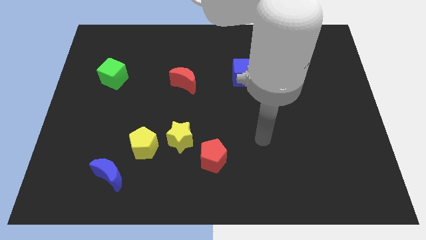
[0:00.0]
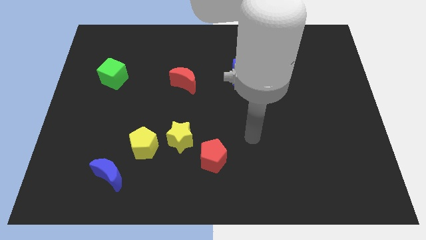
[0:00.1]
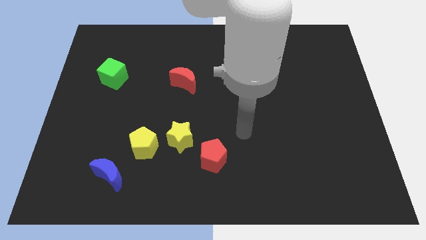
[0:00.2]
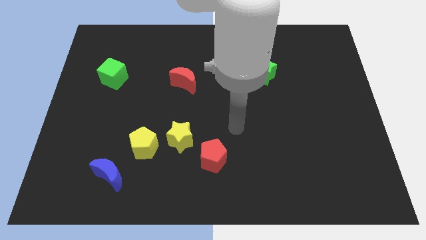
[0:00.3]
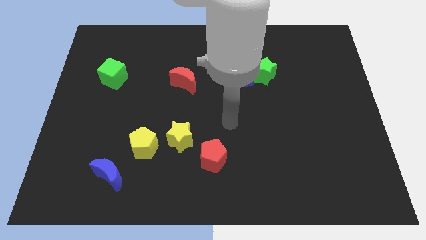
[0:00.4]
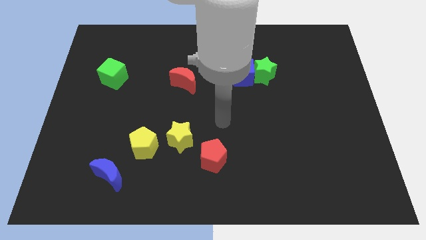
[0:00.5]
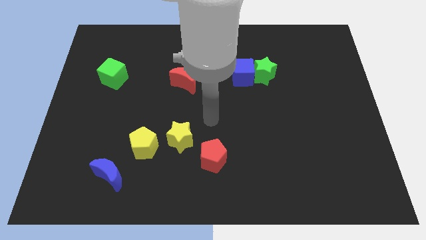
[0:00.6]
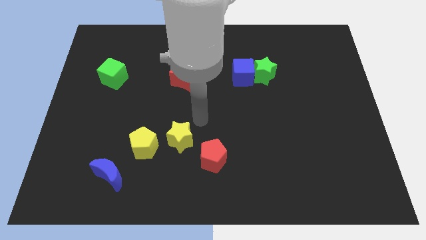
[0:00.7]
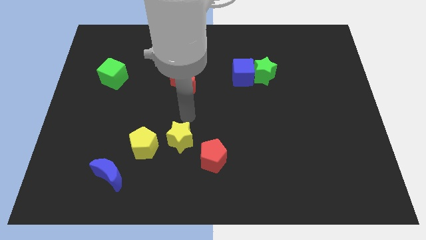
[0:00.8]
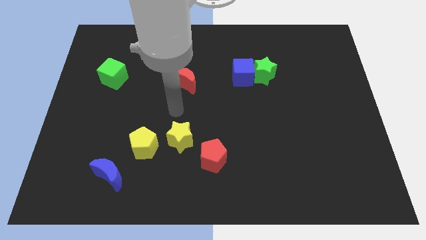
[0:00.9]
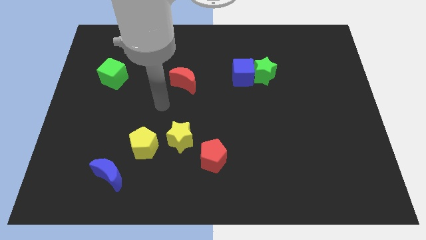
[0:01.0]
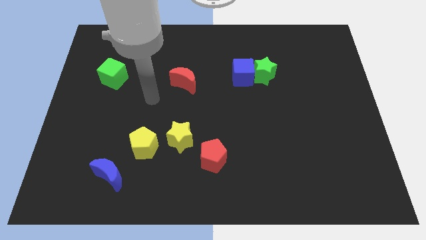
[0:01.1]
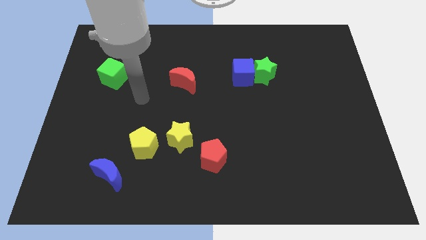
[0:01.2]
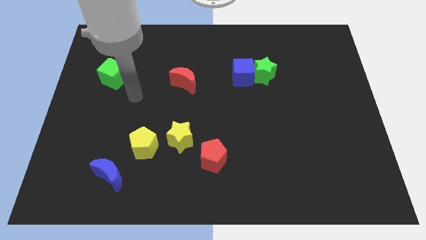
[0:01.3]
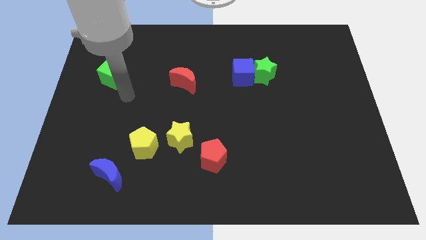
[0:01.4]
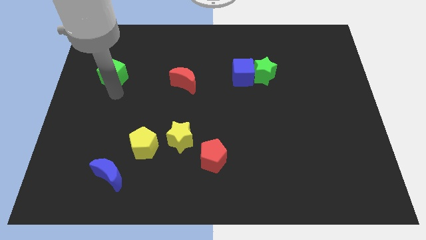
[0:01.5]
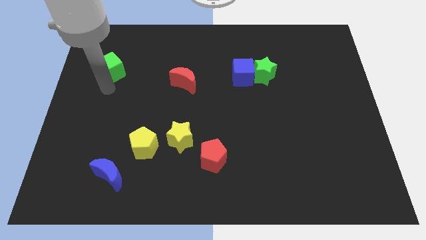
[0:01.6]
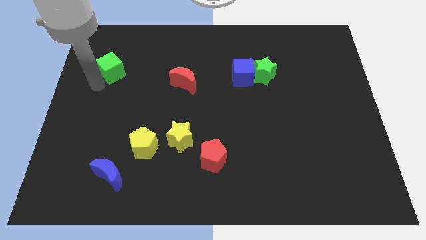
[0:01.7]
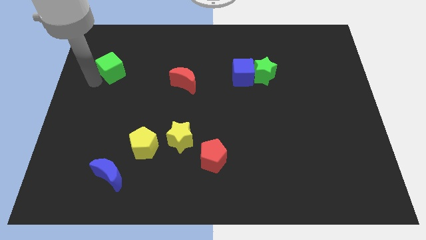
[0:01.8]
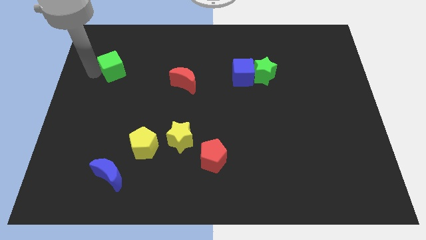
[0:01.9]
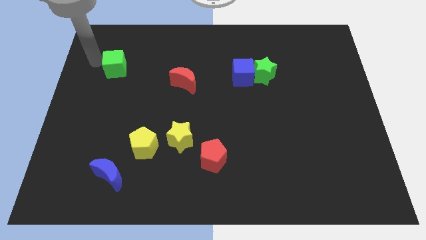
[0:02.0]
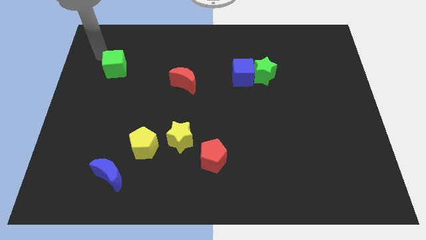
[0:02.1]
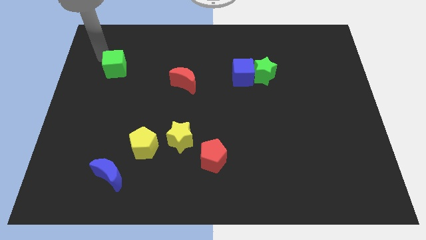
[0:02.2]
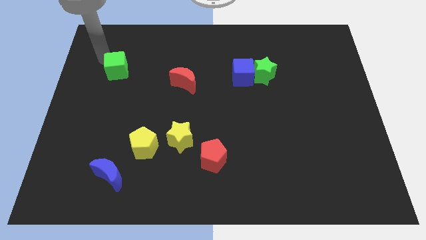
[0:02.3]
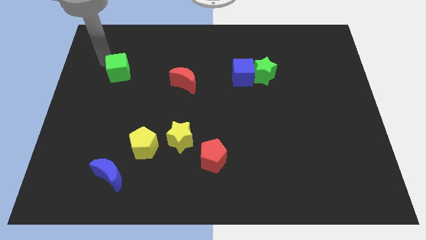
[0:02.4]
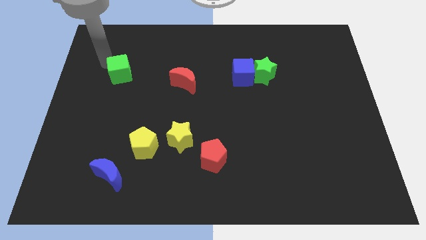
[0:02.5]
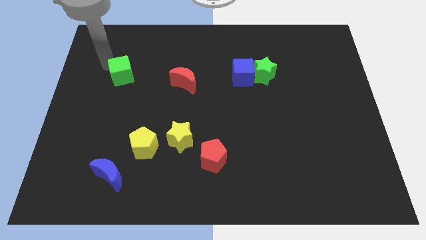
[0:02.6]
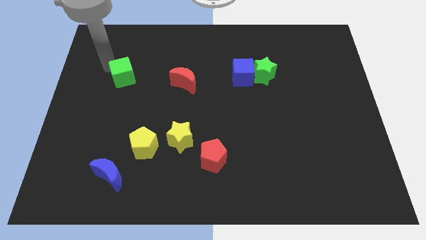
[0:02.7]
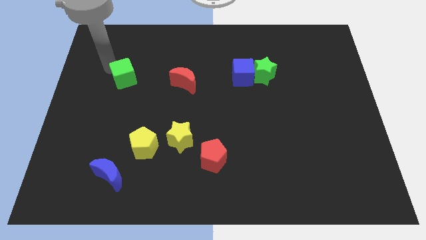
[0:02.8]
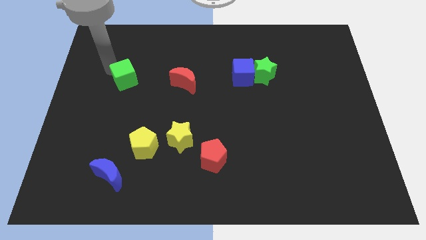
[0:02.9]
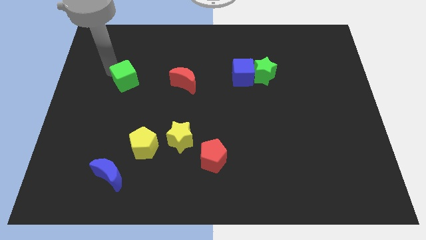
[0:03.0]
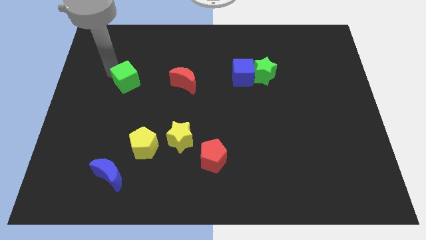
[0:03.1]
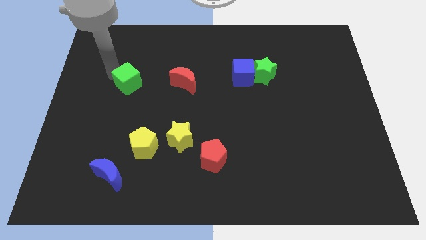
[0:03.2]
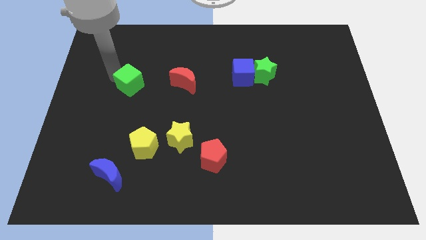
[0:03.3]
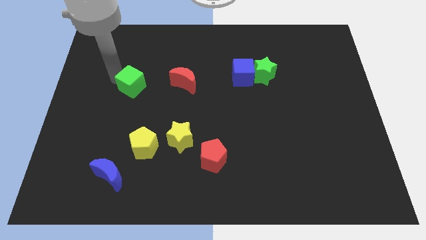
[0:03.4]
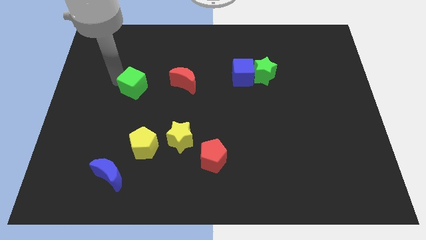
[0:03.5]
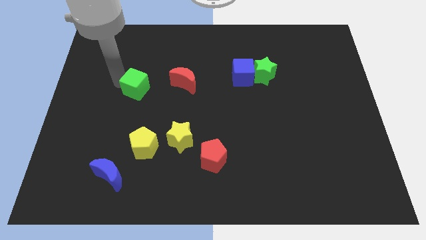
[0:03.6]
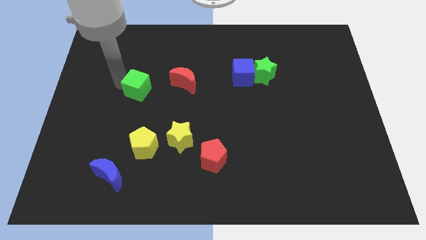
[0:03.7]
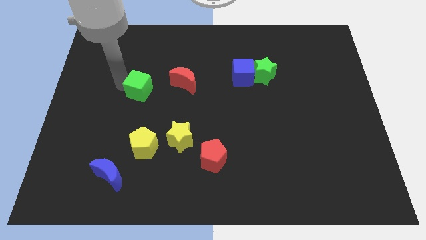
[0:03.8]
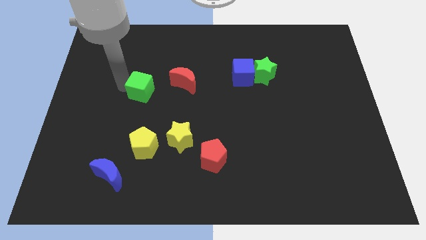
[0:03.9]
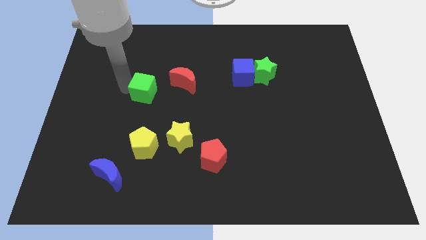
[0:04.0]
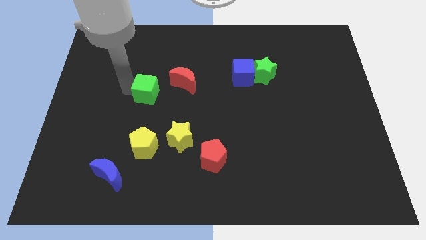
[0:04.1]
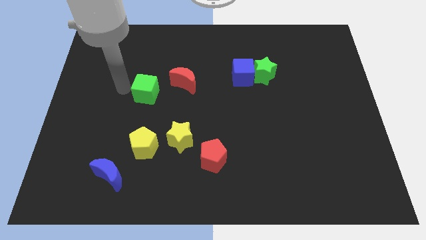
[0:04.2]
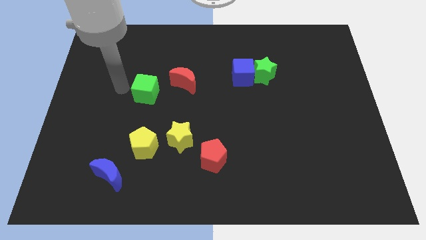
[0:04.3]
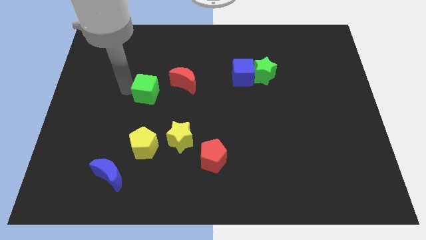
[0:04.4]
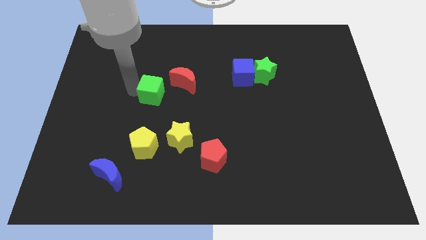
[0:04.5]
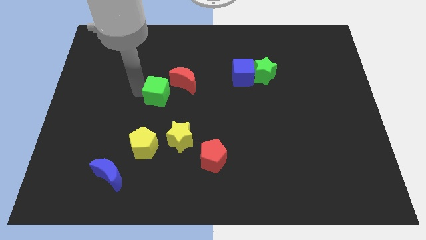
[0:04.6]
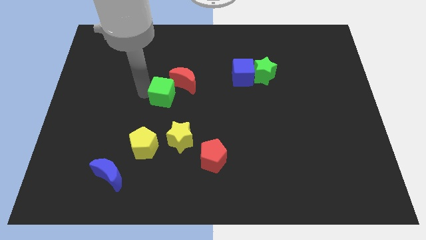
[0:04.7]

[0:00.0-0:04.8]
move the green cube to the middle

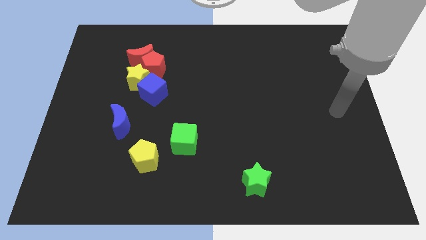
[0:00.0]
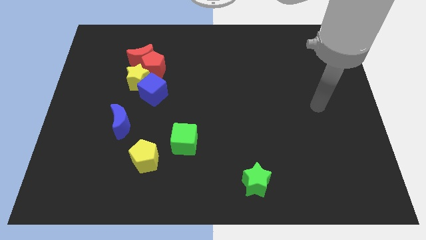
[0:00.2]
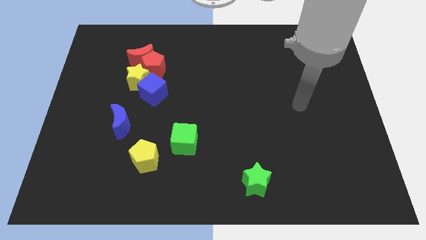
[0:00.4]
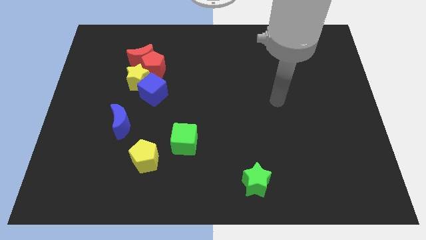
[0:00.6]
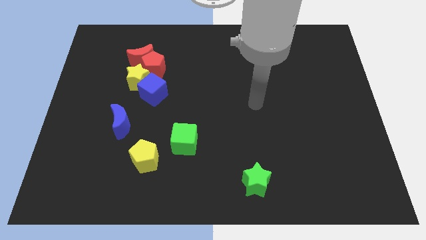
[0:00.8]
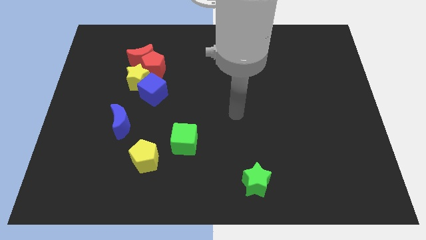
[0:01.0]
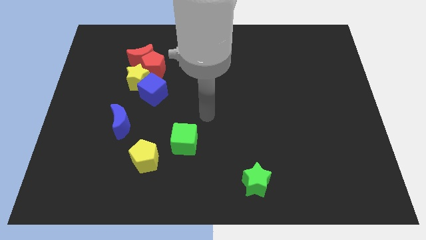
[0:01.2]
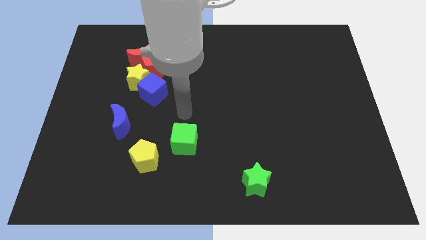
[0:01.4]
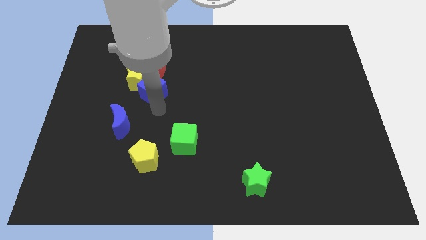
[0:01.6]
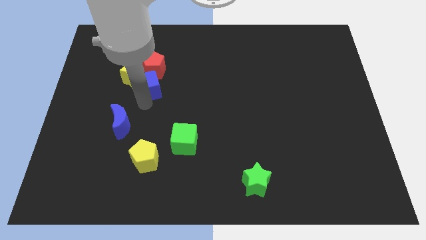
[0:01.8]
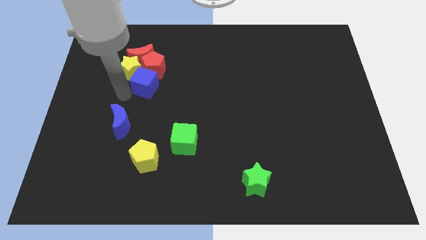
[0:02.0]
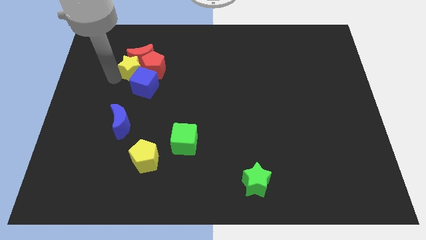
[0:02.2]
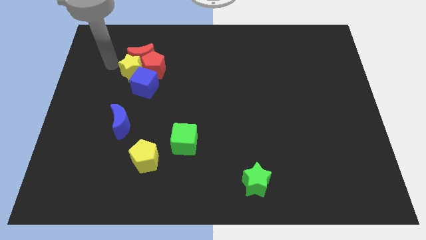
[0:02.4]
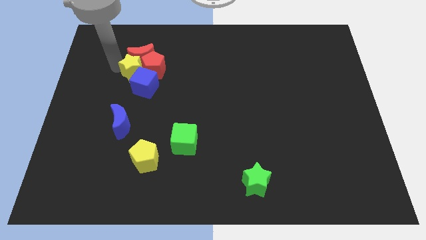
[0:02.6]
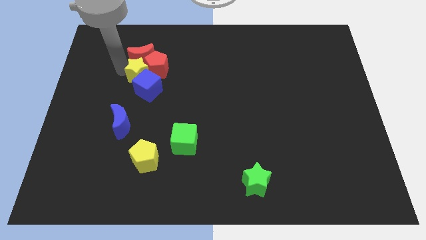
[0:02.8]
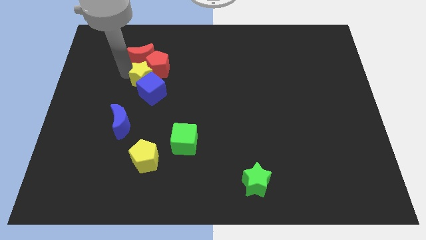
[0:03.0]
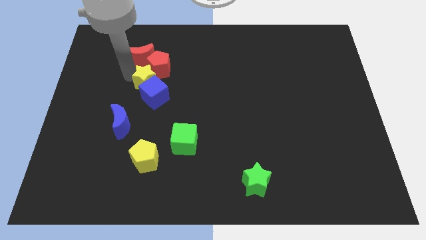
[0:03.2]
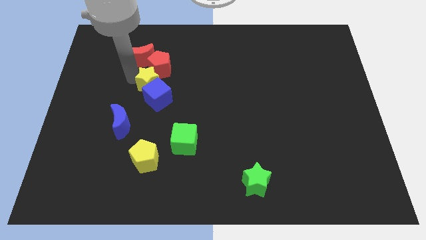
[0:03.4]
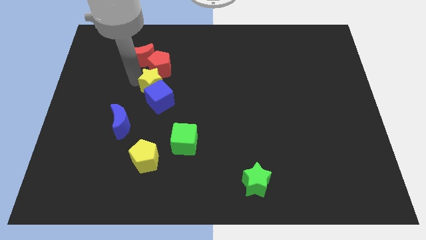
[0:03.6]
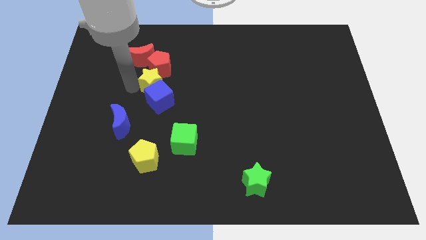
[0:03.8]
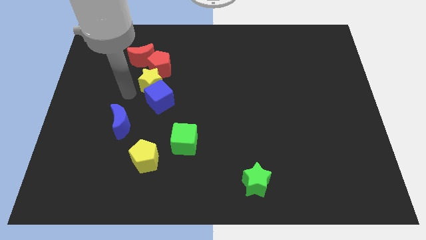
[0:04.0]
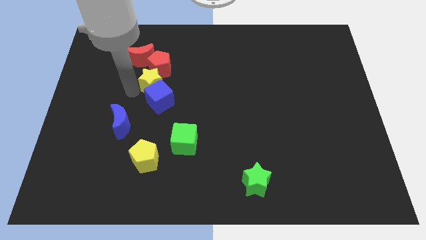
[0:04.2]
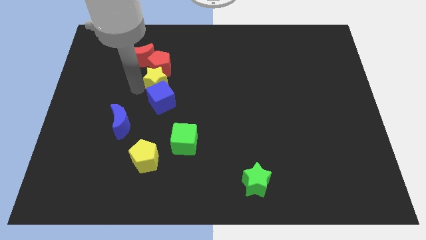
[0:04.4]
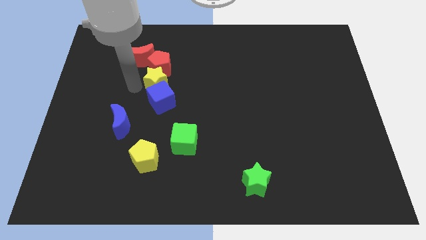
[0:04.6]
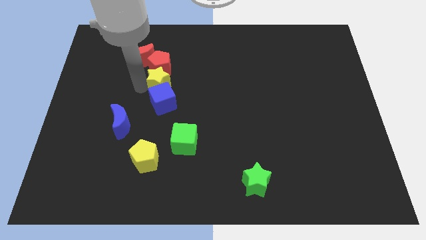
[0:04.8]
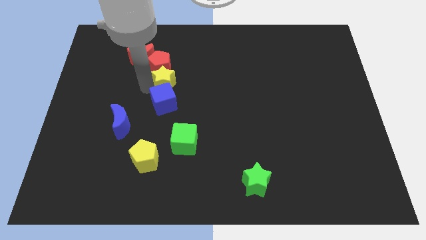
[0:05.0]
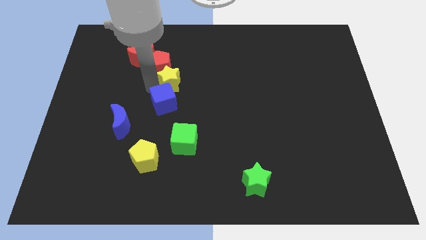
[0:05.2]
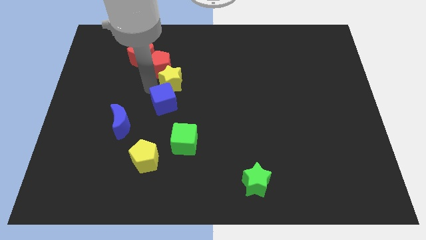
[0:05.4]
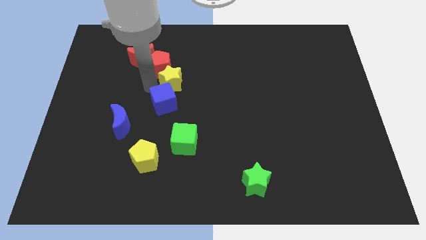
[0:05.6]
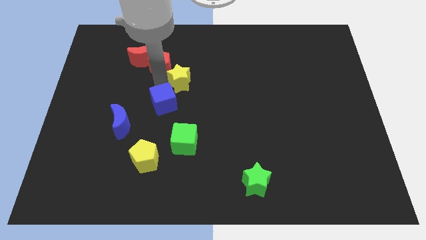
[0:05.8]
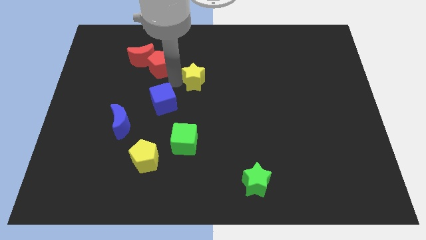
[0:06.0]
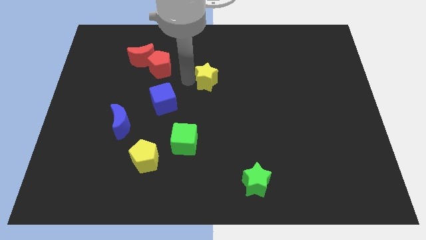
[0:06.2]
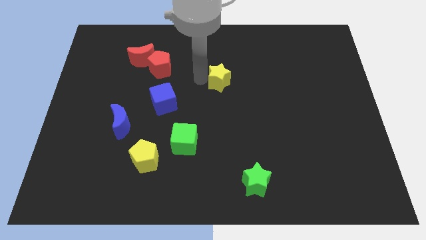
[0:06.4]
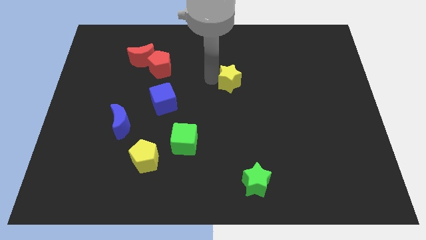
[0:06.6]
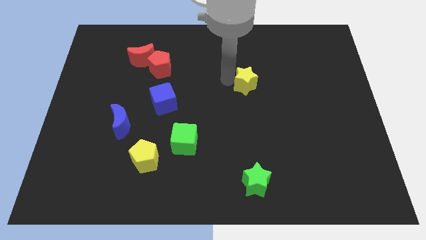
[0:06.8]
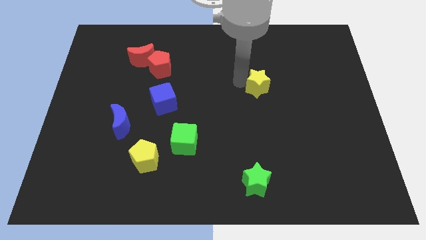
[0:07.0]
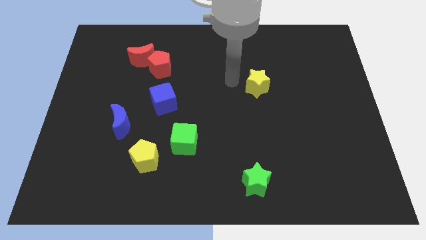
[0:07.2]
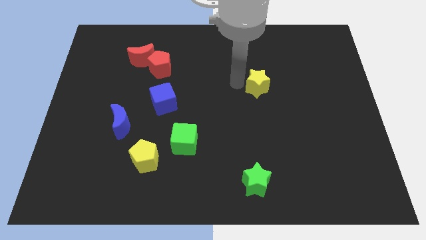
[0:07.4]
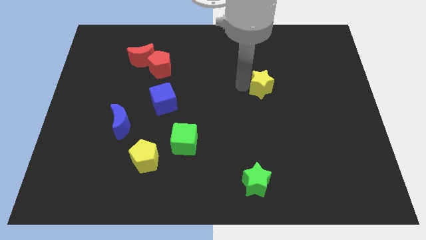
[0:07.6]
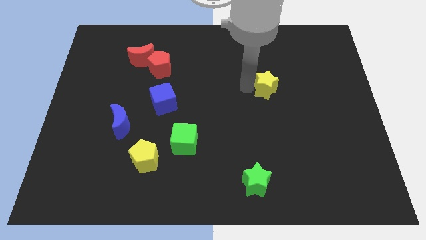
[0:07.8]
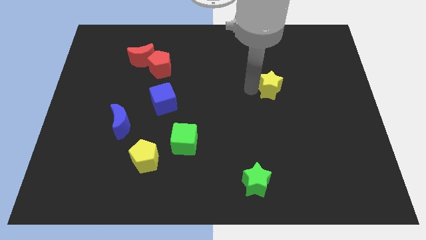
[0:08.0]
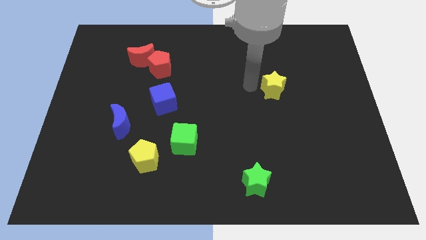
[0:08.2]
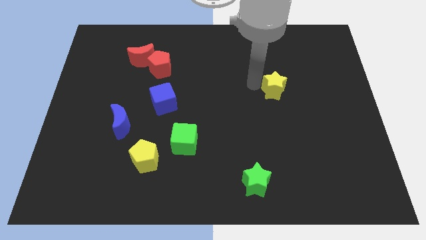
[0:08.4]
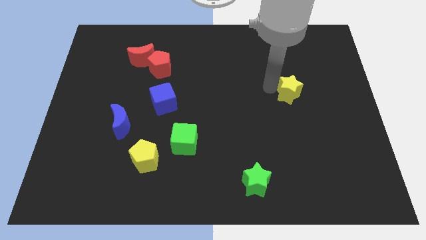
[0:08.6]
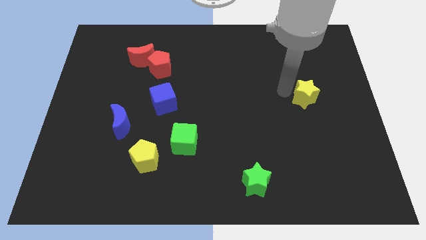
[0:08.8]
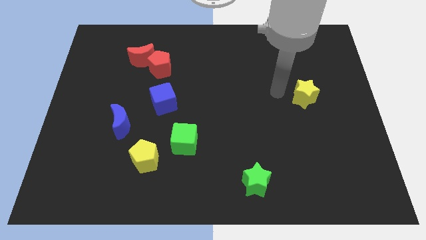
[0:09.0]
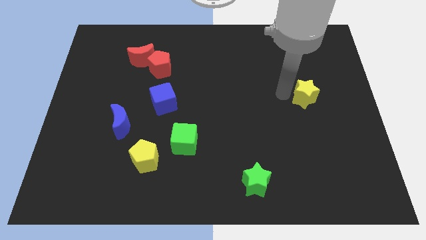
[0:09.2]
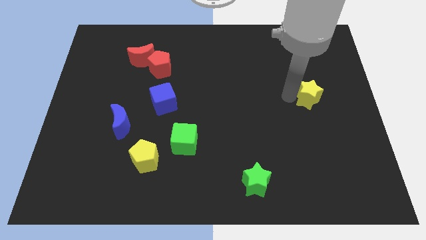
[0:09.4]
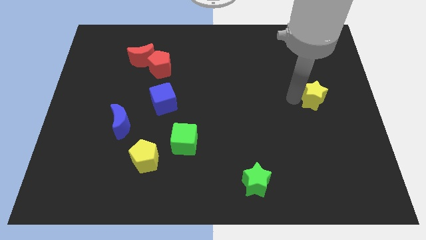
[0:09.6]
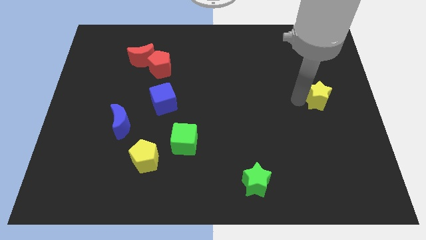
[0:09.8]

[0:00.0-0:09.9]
put the yellow star to the center right
